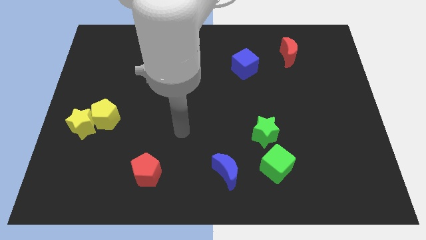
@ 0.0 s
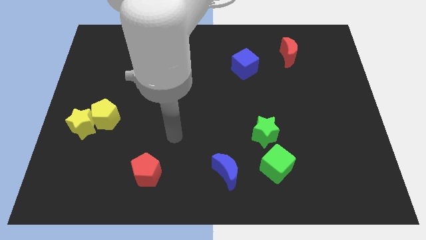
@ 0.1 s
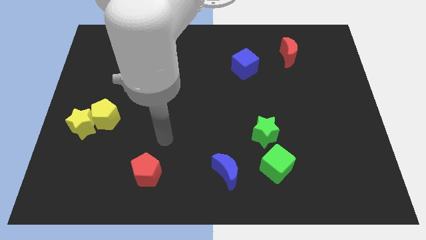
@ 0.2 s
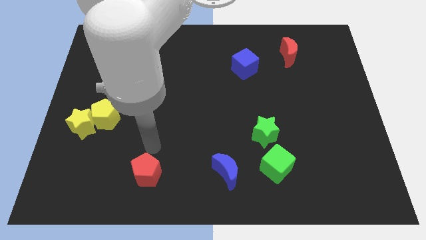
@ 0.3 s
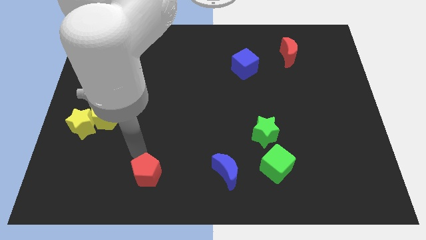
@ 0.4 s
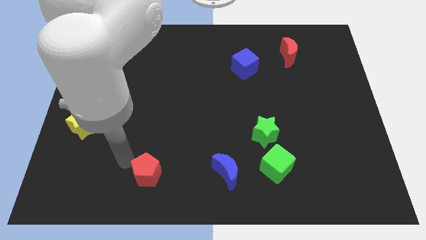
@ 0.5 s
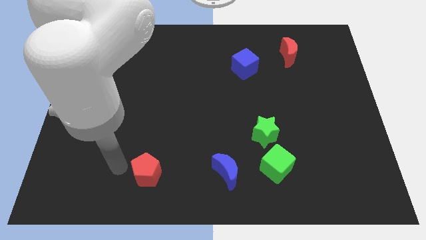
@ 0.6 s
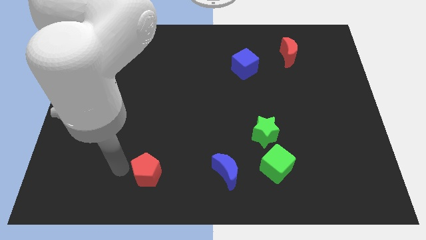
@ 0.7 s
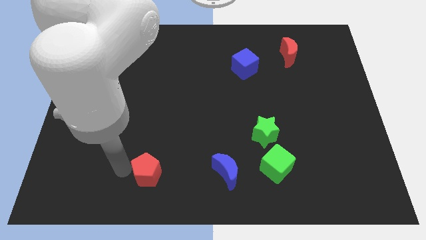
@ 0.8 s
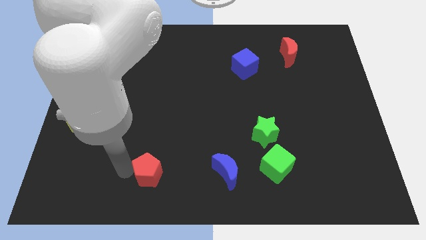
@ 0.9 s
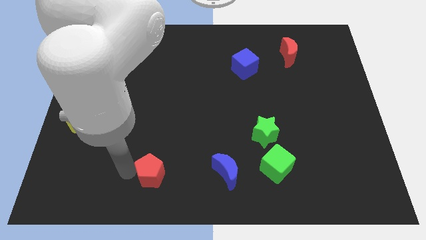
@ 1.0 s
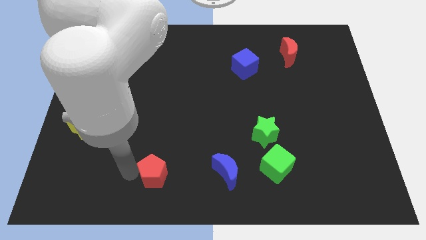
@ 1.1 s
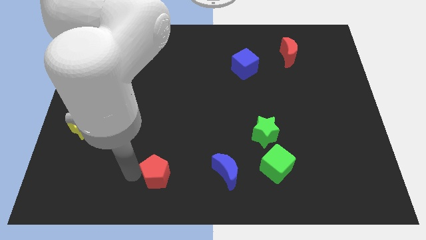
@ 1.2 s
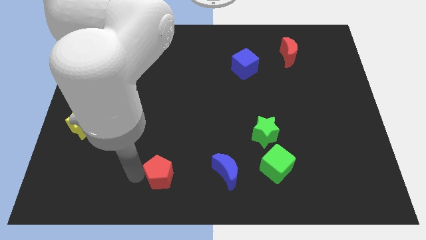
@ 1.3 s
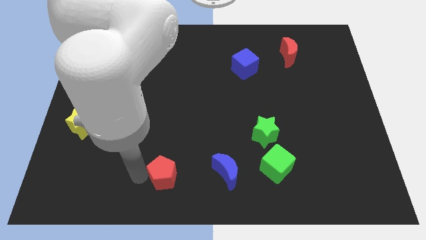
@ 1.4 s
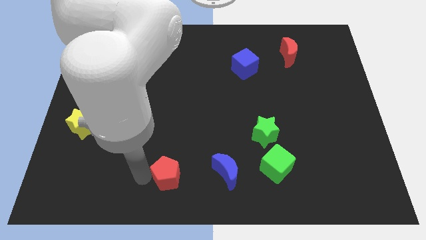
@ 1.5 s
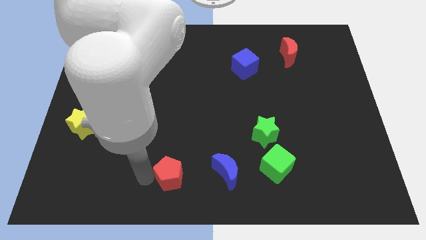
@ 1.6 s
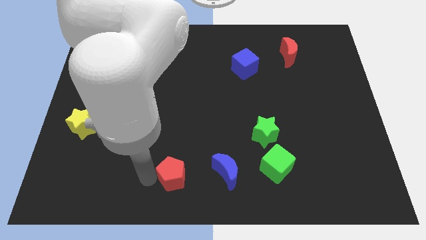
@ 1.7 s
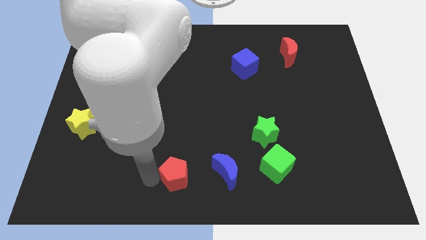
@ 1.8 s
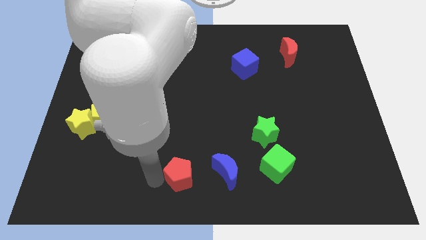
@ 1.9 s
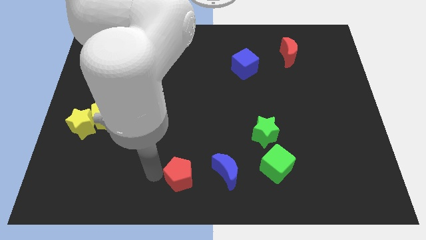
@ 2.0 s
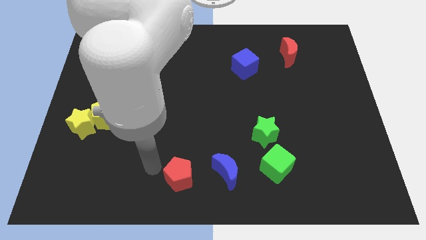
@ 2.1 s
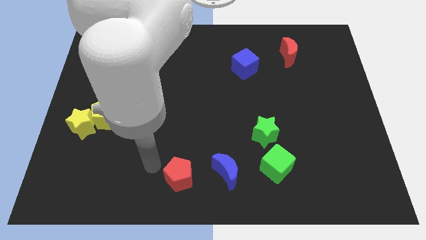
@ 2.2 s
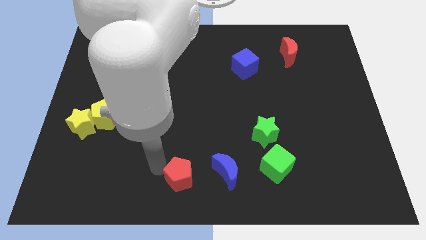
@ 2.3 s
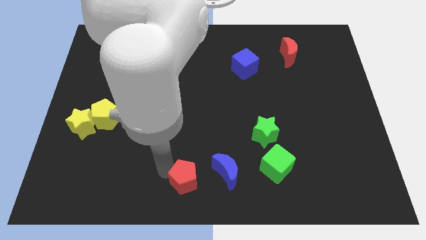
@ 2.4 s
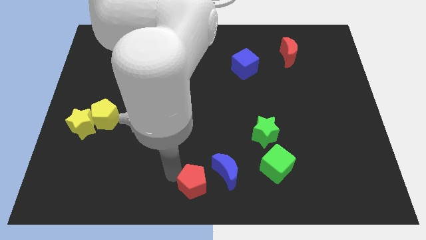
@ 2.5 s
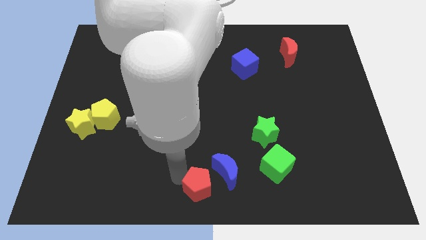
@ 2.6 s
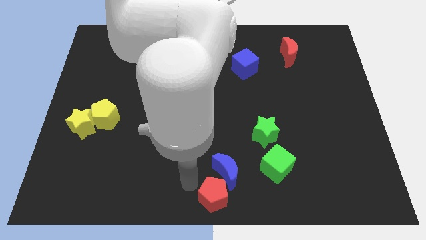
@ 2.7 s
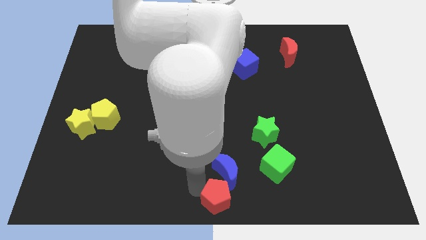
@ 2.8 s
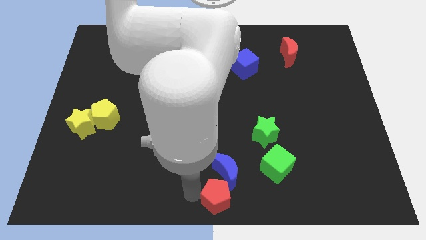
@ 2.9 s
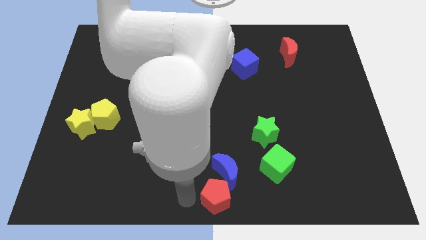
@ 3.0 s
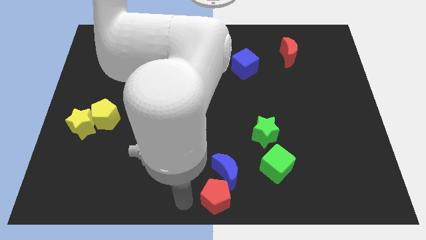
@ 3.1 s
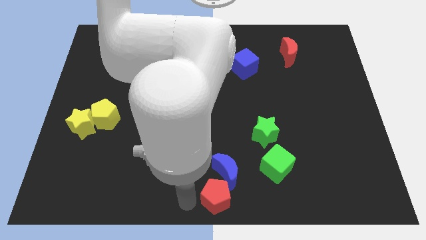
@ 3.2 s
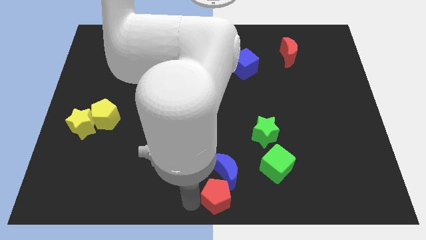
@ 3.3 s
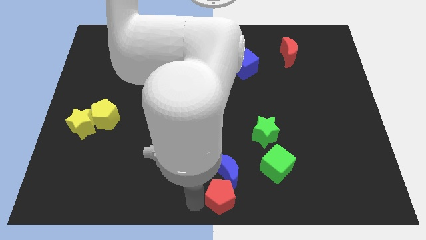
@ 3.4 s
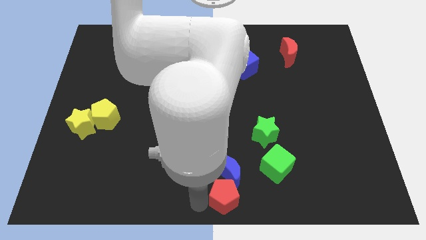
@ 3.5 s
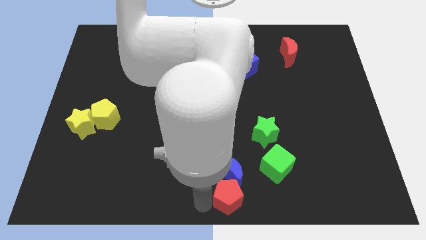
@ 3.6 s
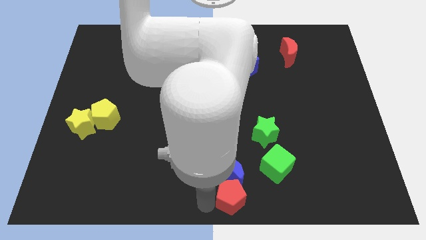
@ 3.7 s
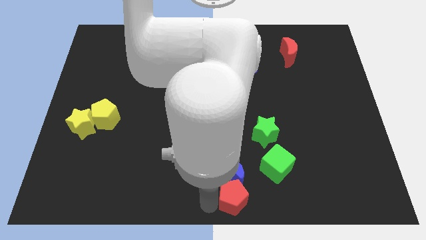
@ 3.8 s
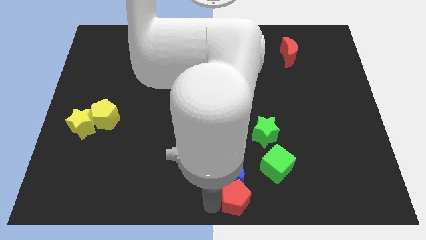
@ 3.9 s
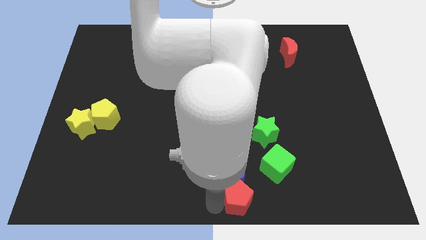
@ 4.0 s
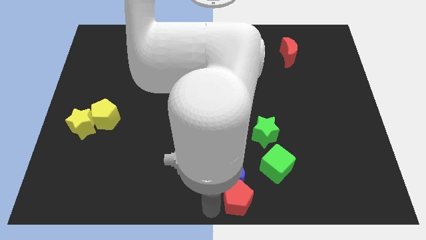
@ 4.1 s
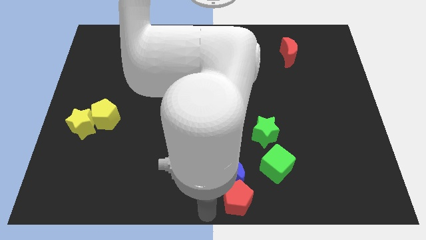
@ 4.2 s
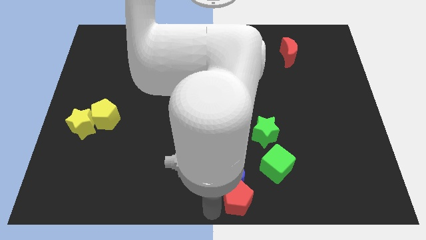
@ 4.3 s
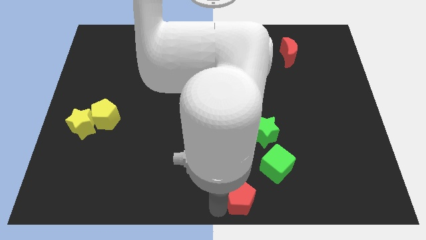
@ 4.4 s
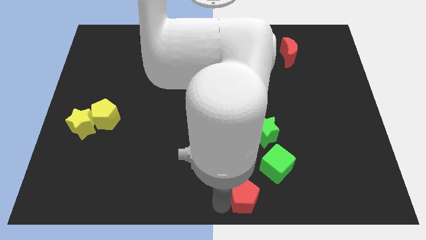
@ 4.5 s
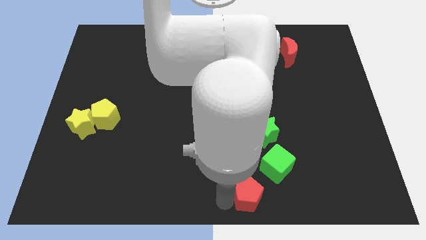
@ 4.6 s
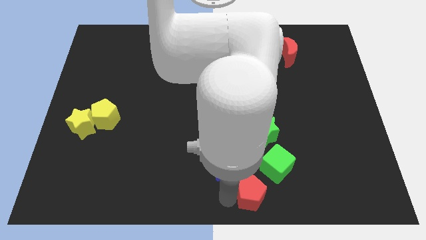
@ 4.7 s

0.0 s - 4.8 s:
push the red pentagon right

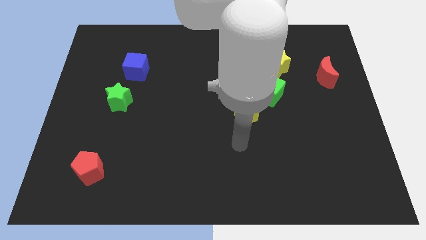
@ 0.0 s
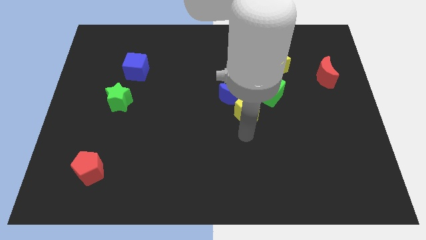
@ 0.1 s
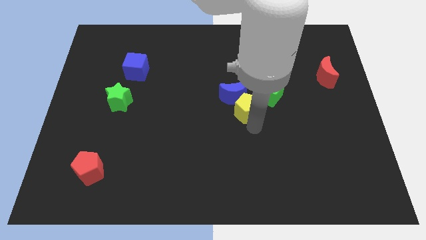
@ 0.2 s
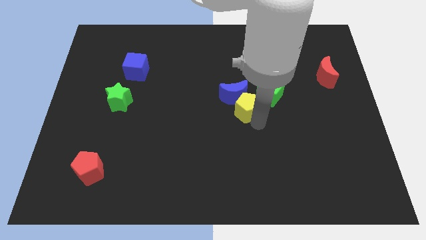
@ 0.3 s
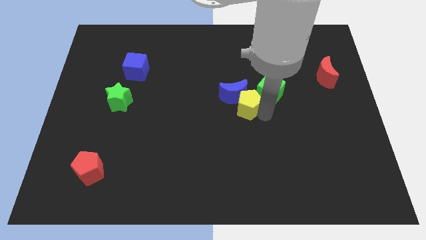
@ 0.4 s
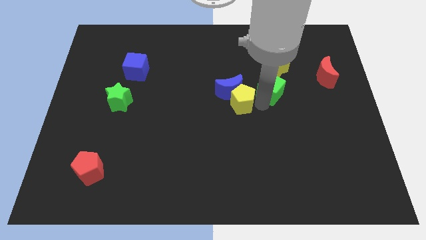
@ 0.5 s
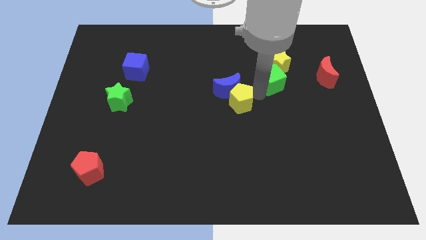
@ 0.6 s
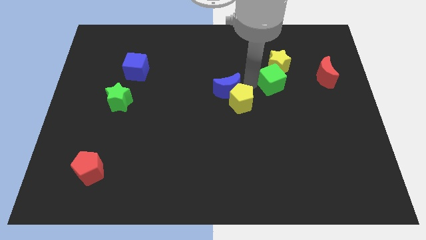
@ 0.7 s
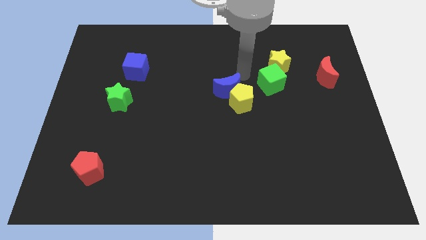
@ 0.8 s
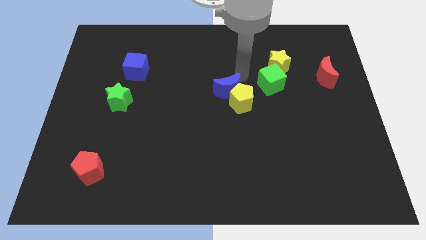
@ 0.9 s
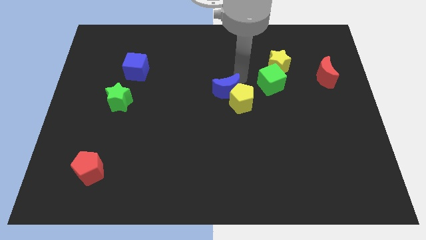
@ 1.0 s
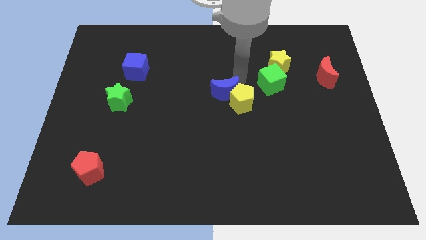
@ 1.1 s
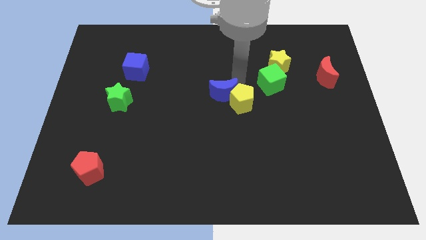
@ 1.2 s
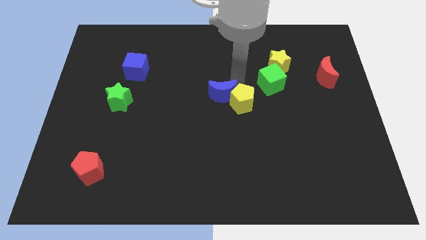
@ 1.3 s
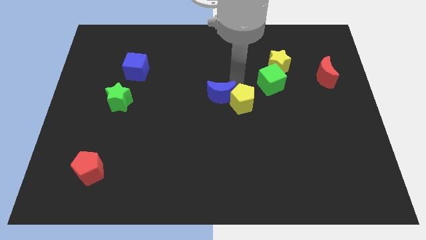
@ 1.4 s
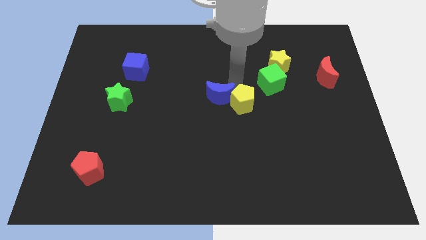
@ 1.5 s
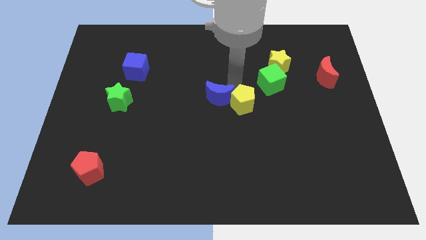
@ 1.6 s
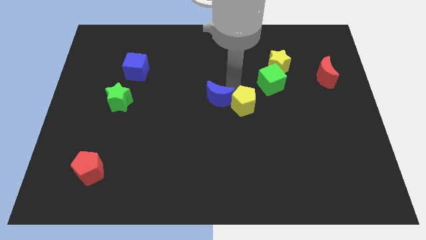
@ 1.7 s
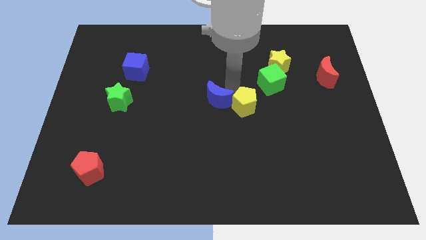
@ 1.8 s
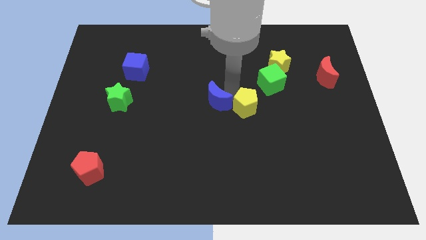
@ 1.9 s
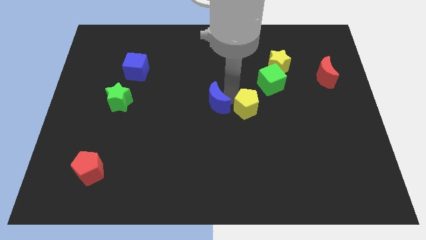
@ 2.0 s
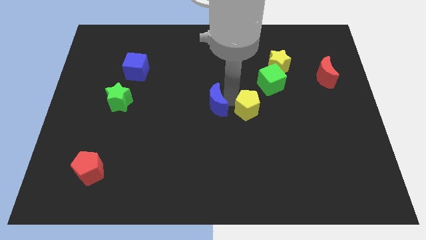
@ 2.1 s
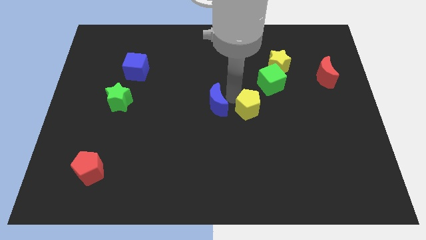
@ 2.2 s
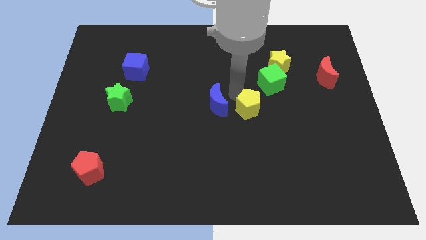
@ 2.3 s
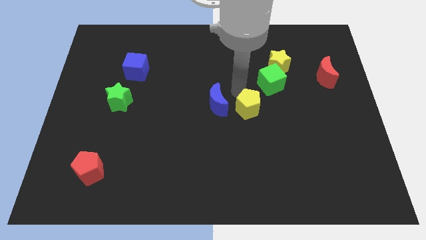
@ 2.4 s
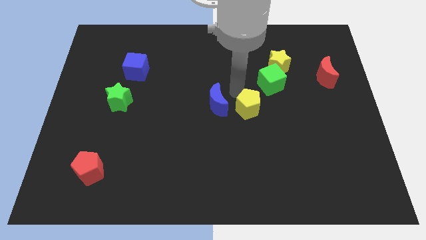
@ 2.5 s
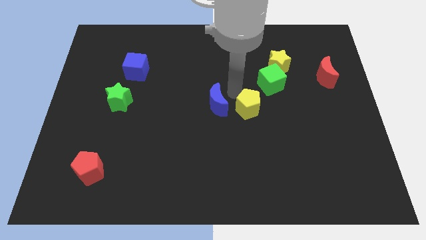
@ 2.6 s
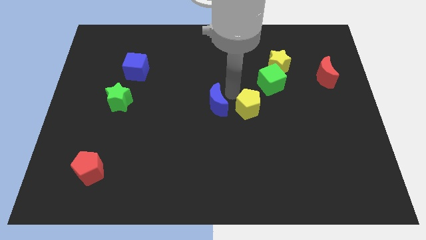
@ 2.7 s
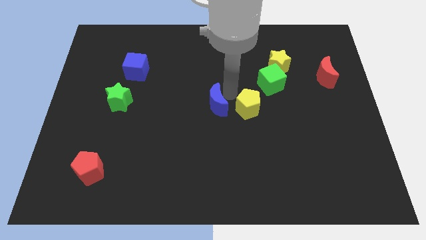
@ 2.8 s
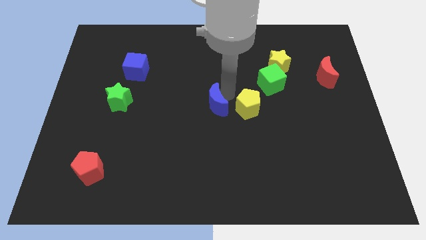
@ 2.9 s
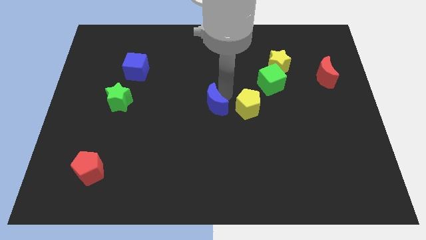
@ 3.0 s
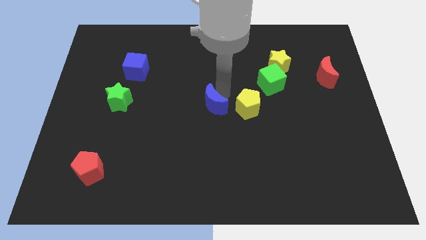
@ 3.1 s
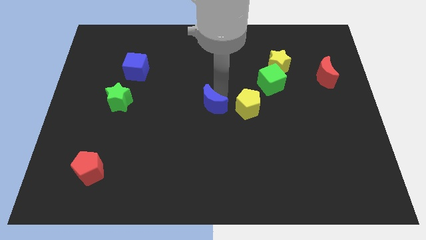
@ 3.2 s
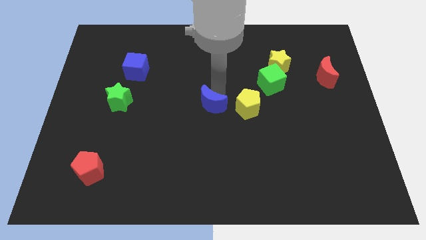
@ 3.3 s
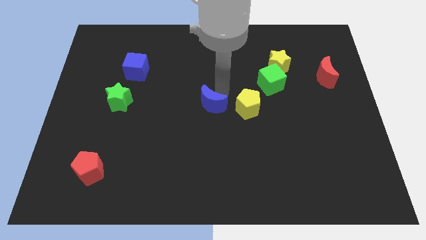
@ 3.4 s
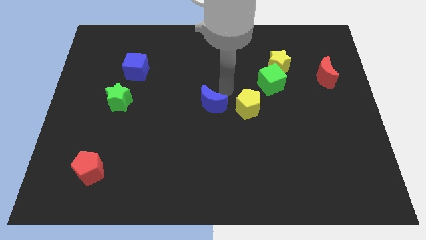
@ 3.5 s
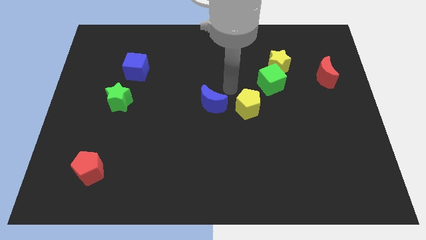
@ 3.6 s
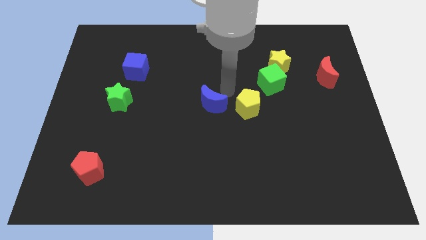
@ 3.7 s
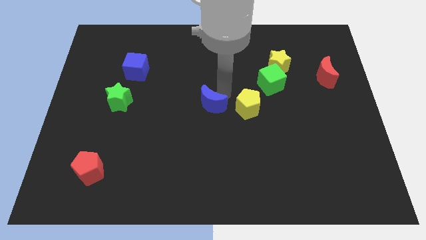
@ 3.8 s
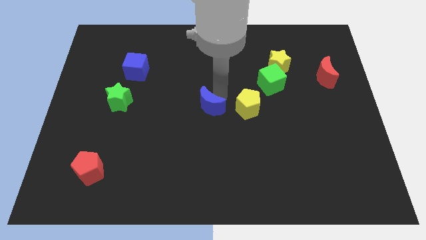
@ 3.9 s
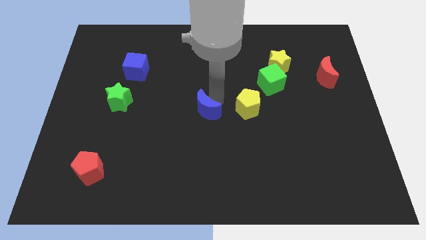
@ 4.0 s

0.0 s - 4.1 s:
move the blue moon somewhat down and left diagonally
